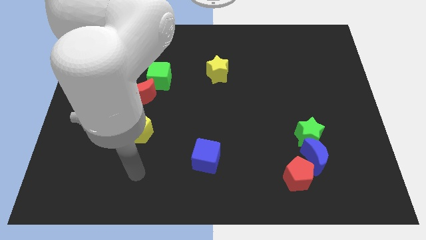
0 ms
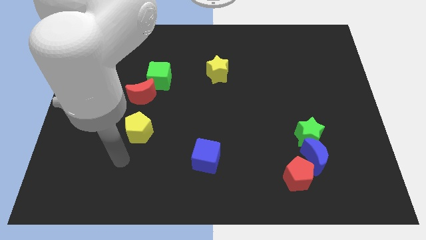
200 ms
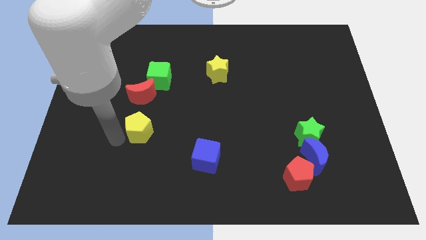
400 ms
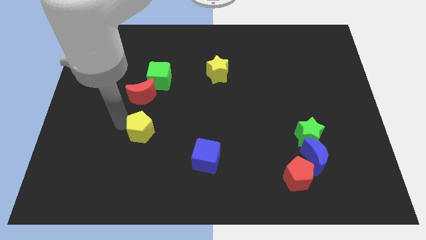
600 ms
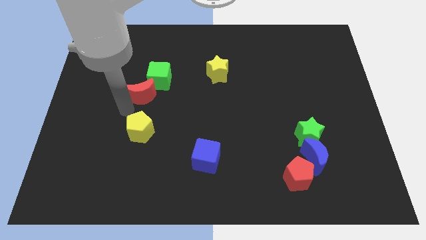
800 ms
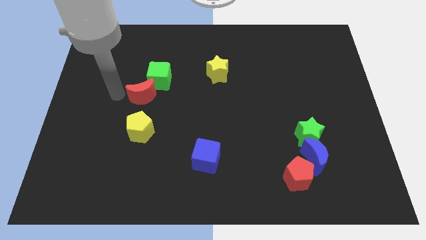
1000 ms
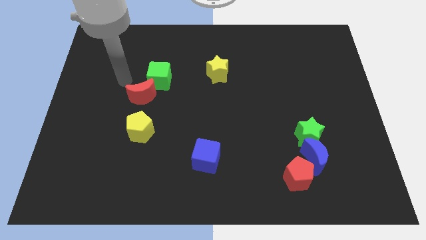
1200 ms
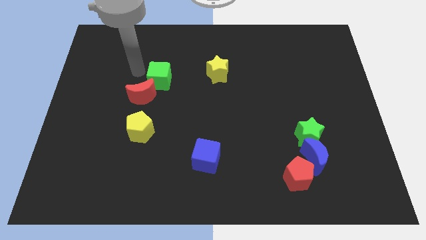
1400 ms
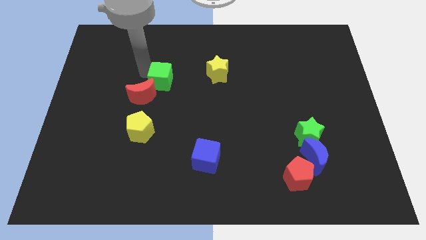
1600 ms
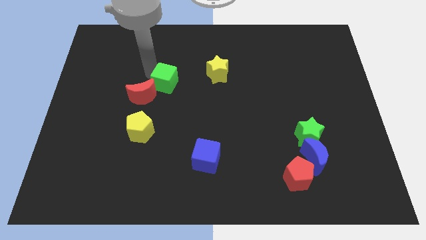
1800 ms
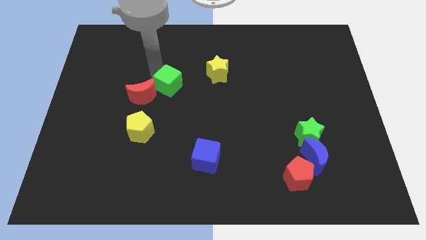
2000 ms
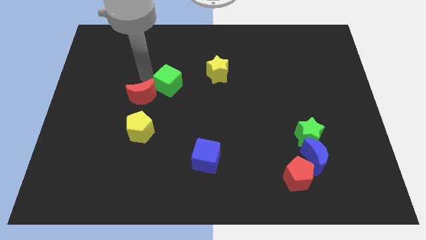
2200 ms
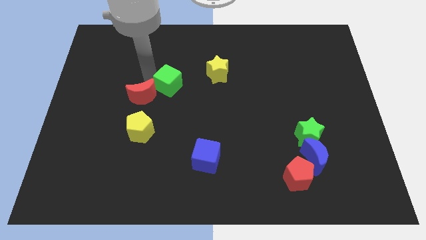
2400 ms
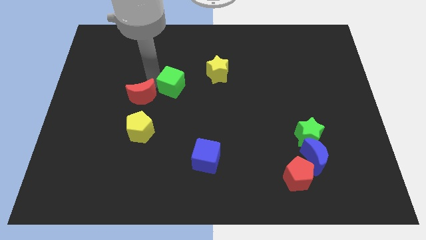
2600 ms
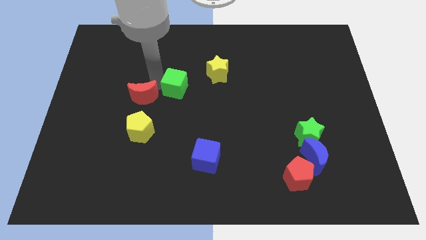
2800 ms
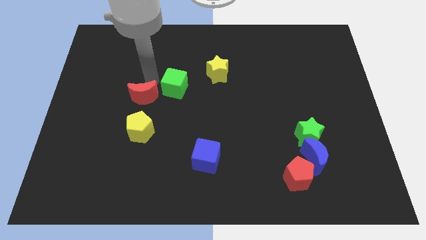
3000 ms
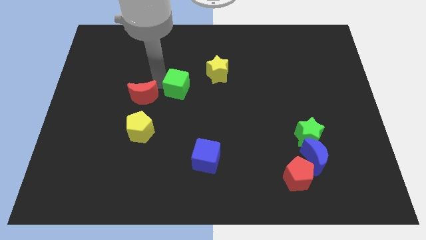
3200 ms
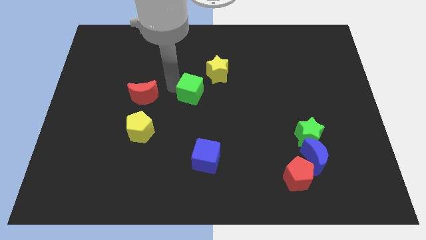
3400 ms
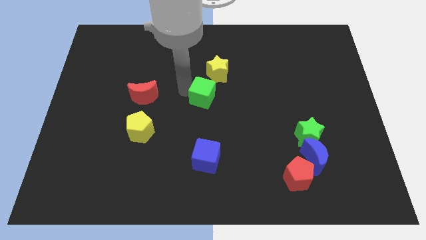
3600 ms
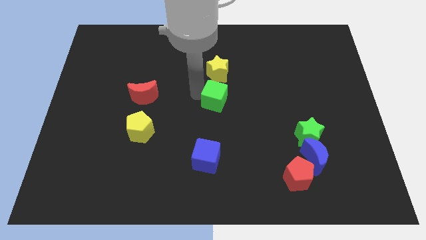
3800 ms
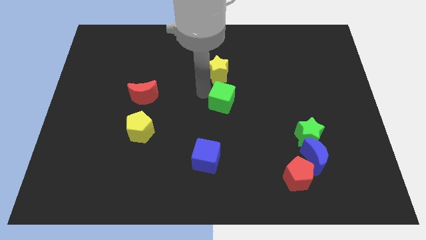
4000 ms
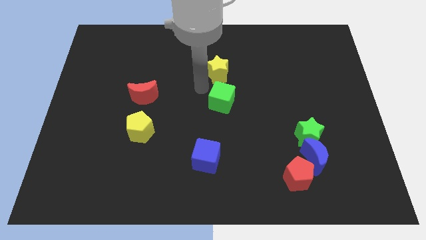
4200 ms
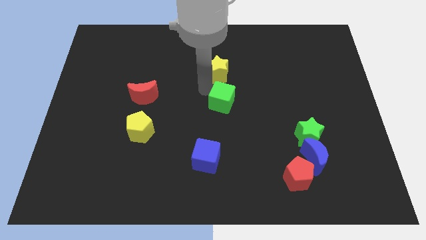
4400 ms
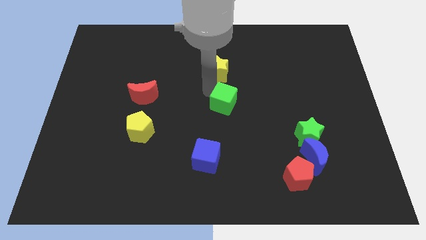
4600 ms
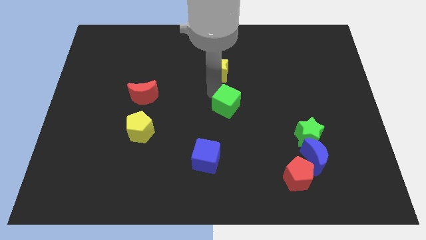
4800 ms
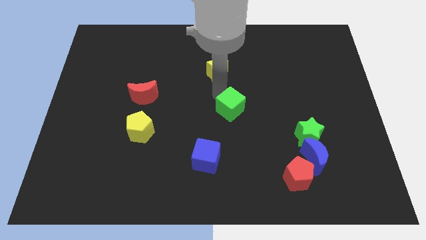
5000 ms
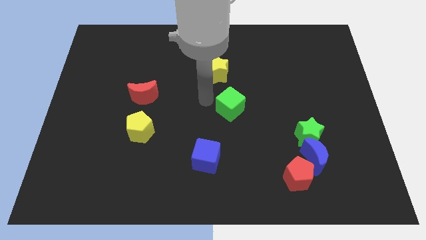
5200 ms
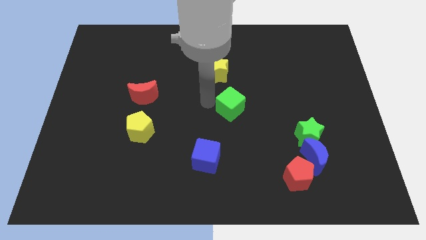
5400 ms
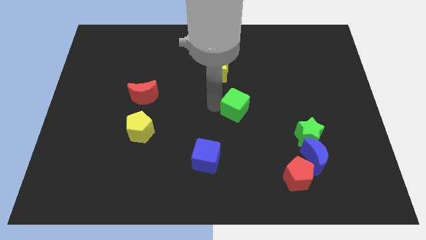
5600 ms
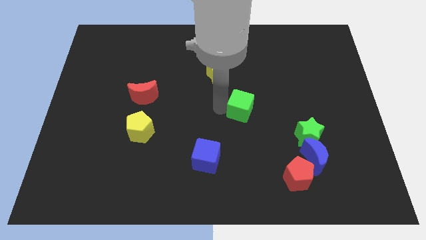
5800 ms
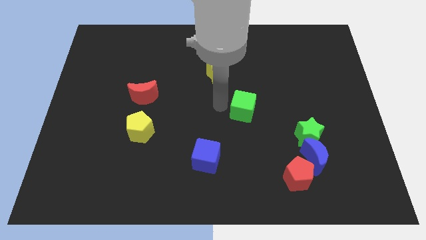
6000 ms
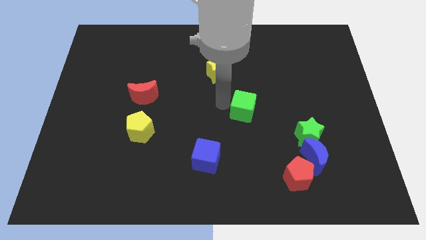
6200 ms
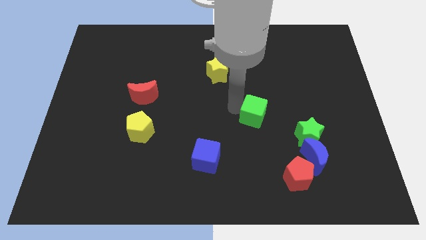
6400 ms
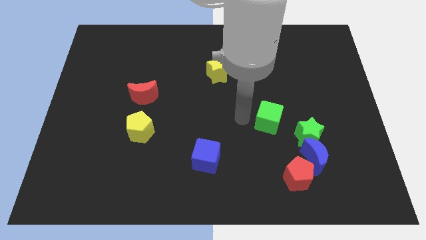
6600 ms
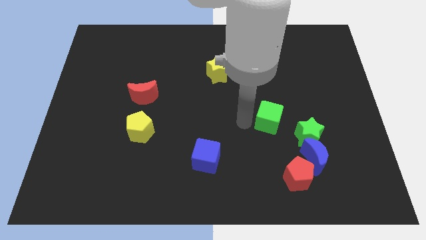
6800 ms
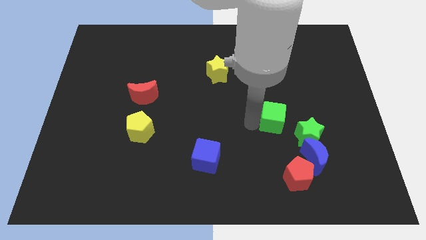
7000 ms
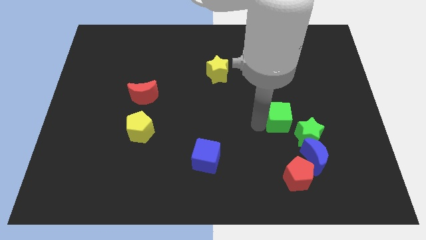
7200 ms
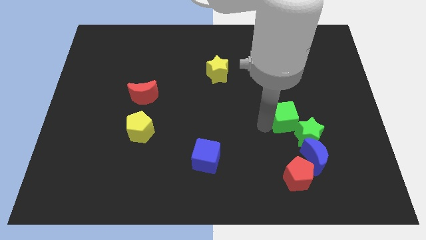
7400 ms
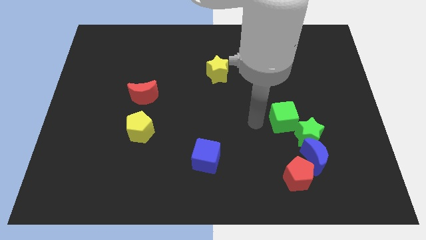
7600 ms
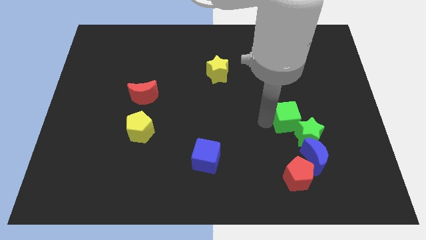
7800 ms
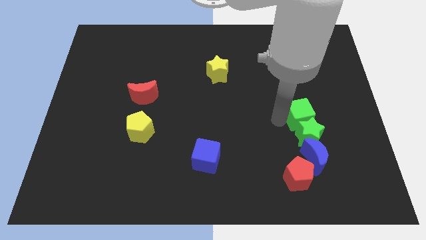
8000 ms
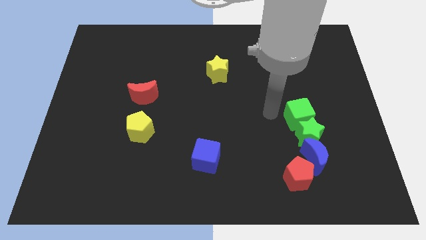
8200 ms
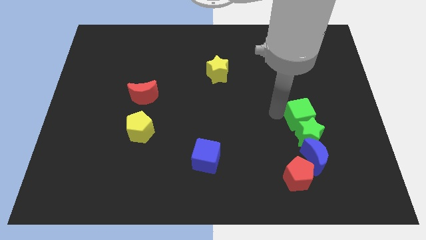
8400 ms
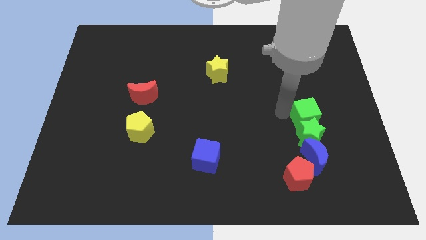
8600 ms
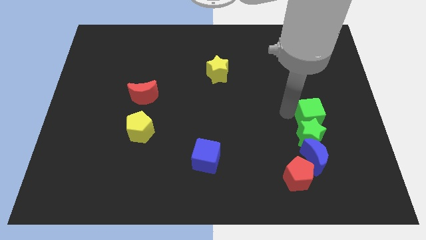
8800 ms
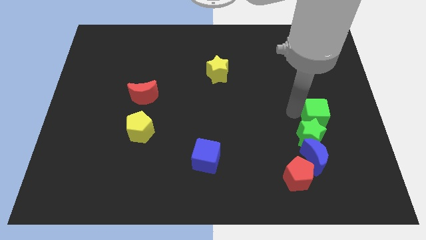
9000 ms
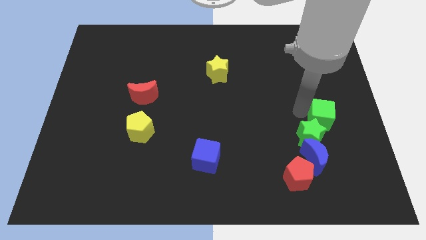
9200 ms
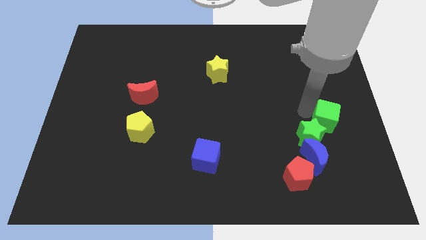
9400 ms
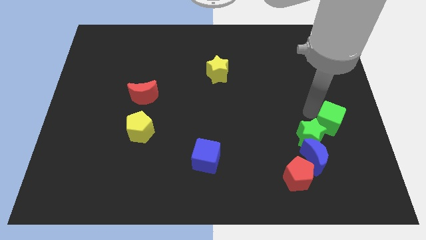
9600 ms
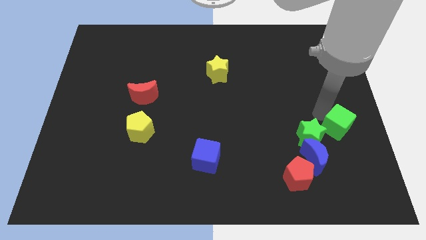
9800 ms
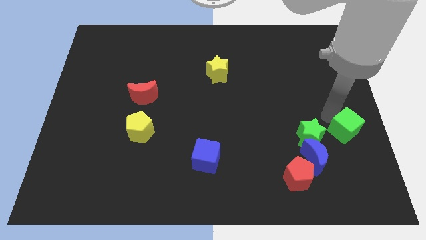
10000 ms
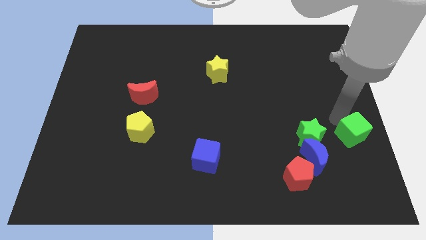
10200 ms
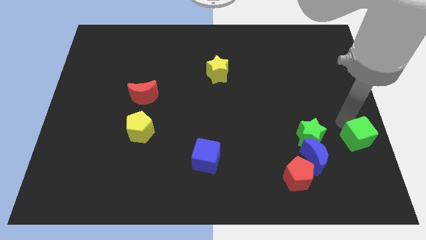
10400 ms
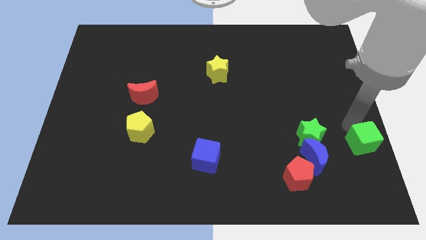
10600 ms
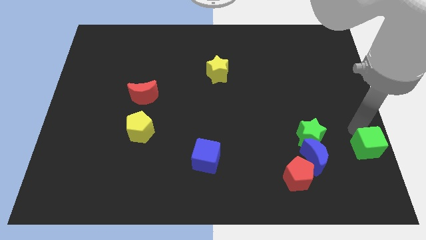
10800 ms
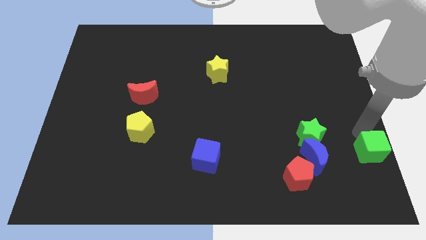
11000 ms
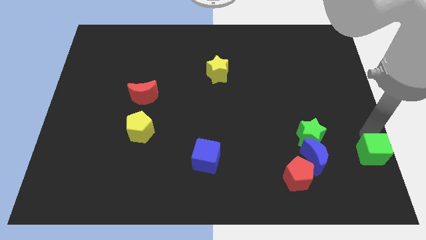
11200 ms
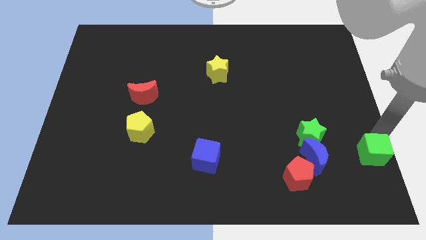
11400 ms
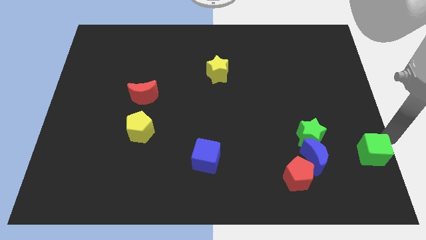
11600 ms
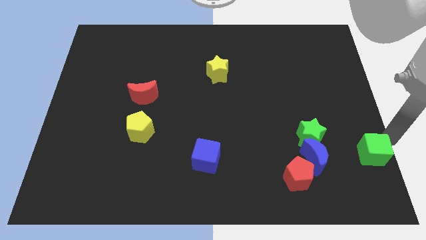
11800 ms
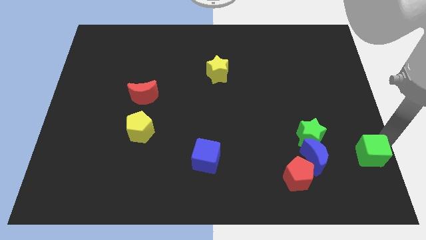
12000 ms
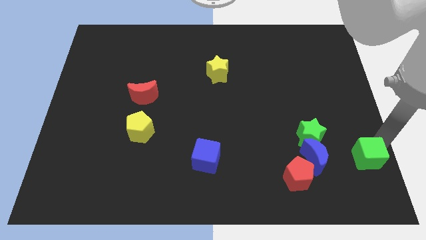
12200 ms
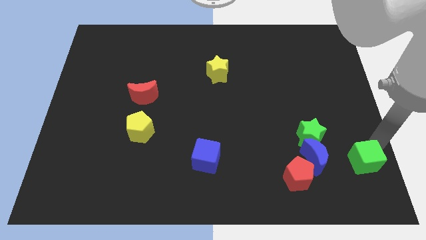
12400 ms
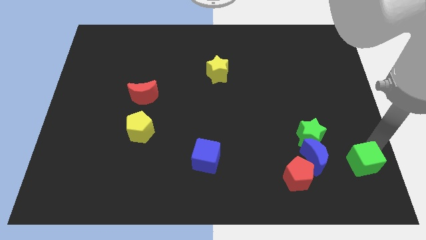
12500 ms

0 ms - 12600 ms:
put the green cube to the bottom right
